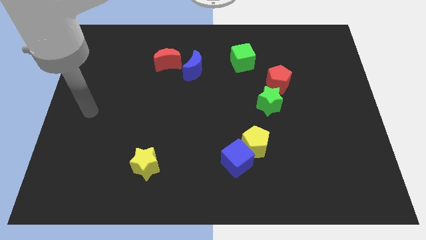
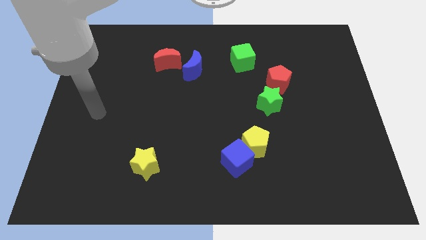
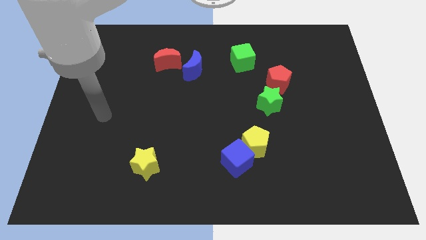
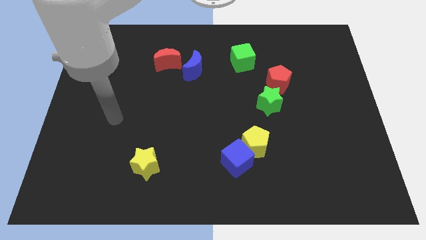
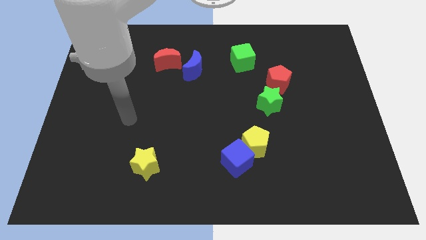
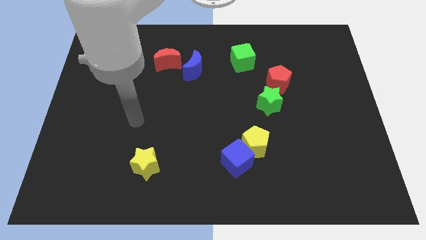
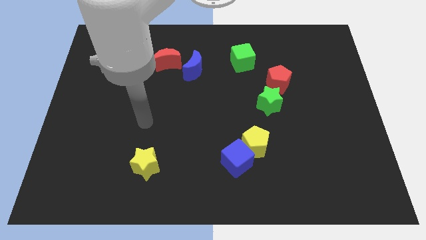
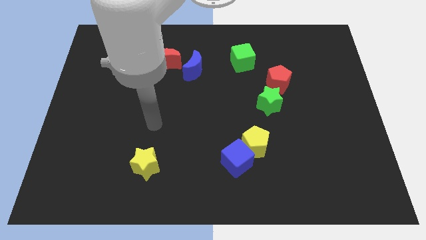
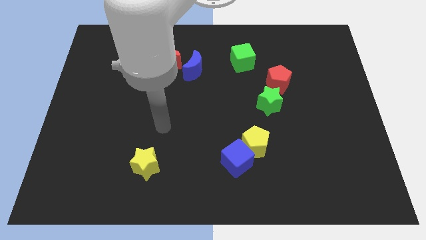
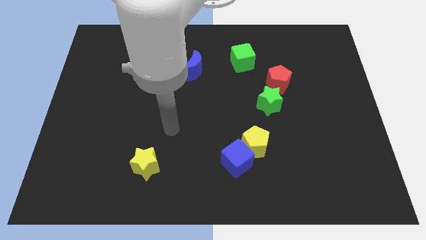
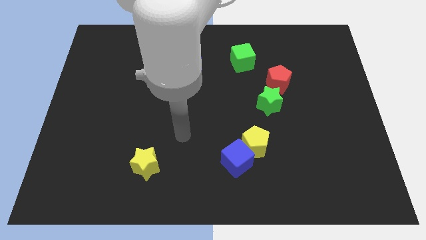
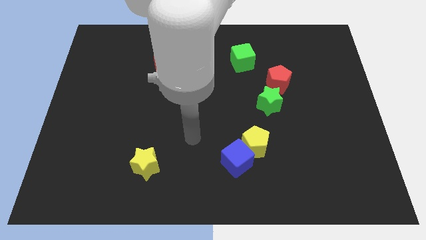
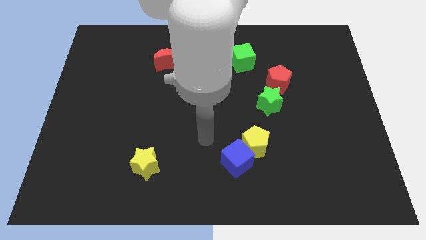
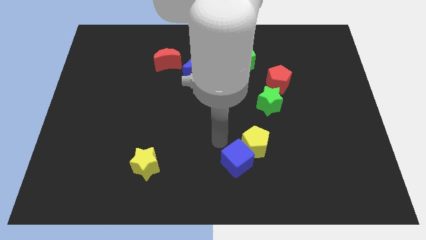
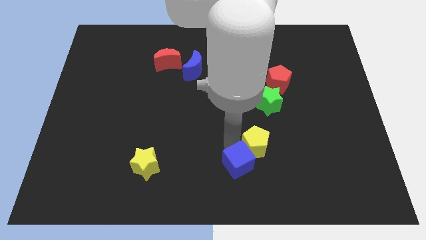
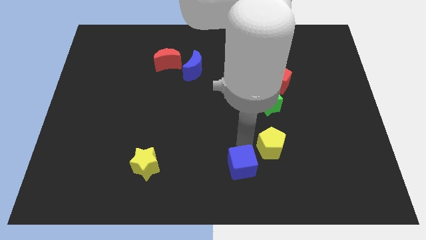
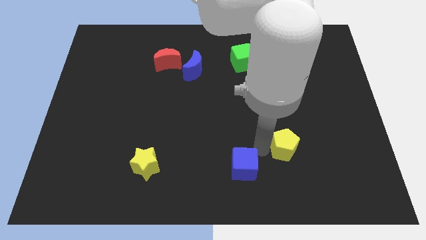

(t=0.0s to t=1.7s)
pull the blue cube apart from the yellow pentagon

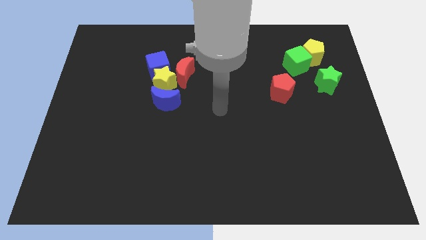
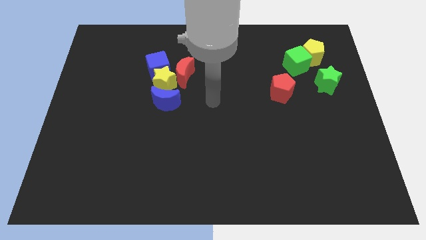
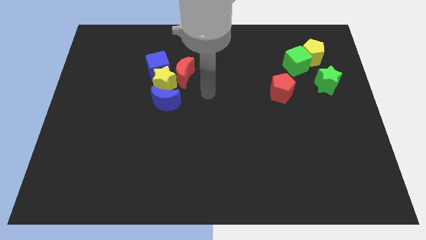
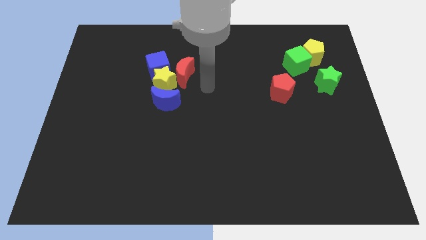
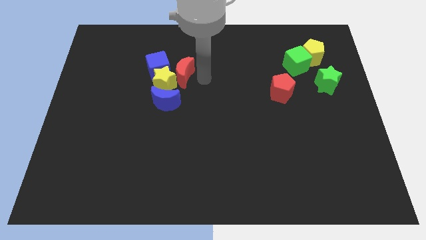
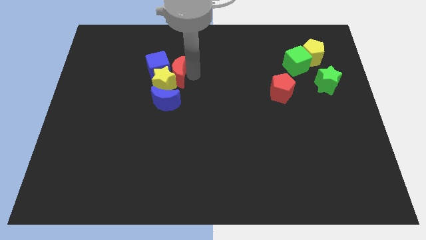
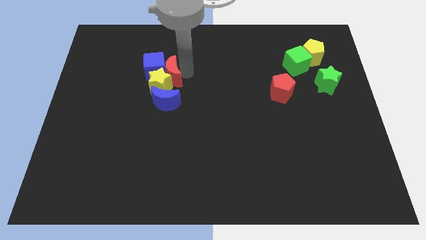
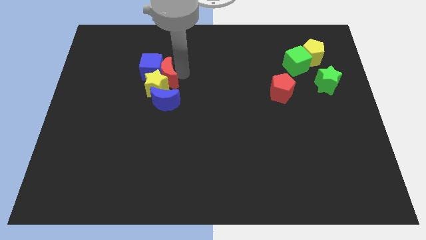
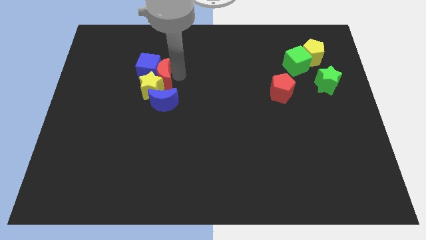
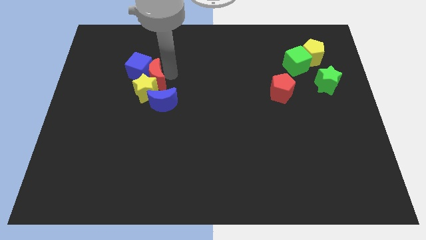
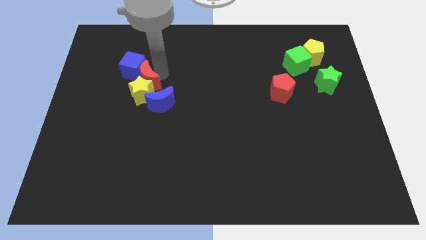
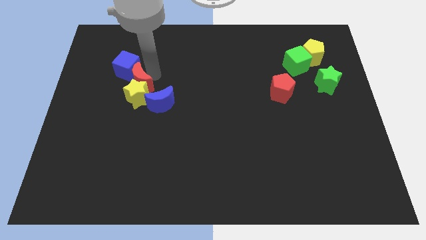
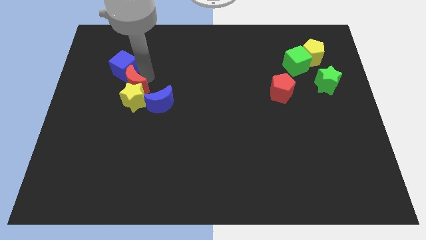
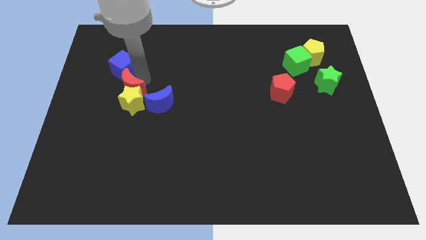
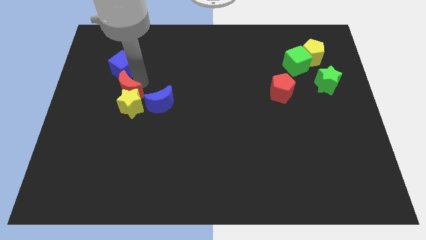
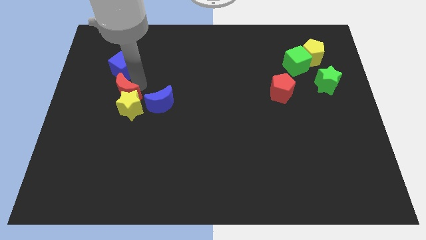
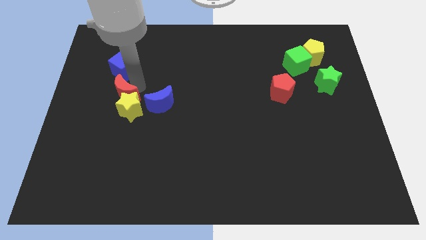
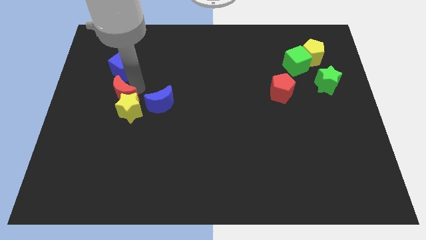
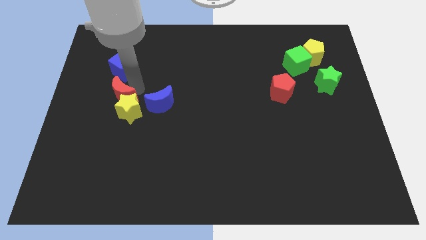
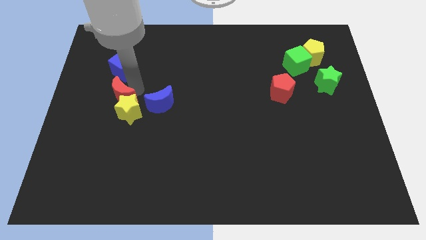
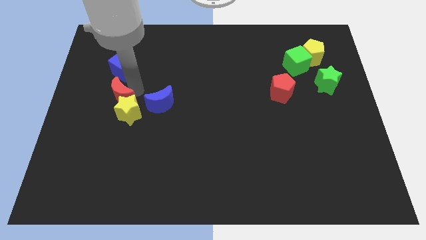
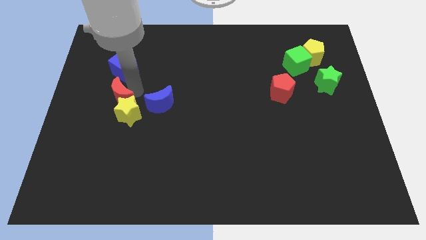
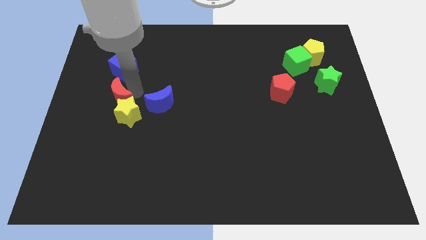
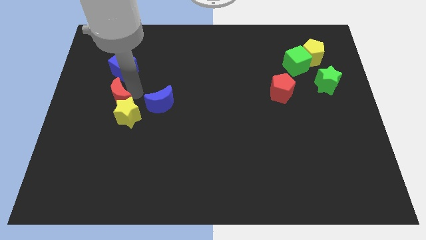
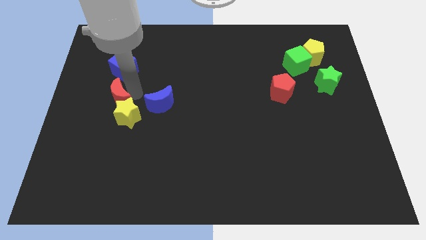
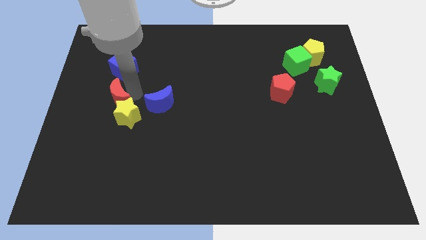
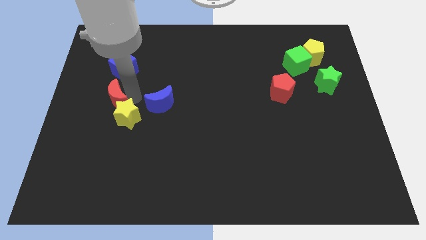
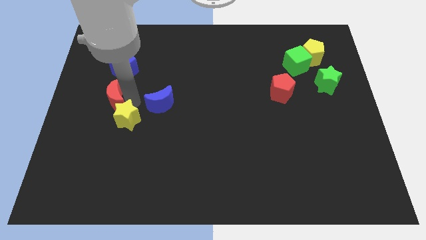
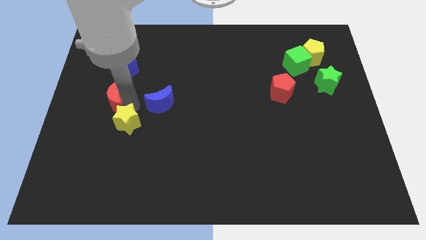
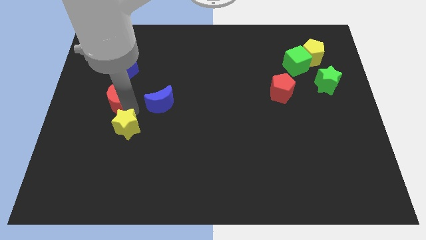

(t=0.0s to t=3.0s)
pull the yellow star apart from the group

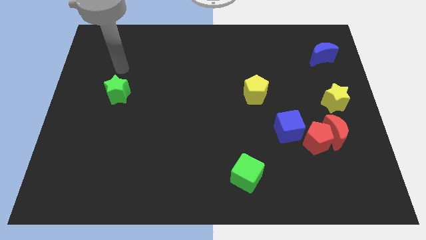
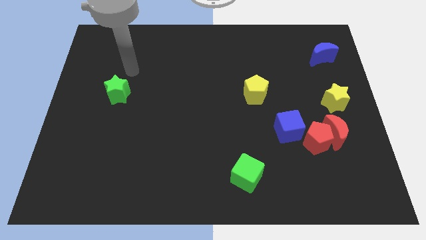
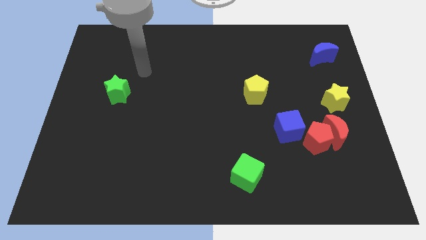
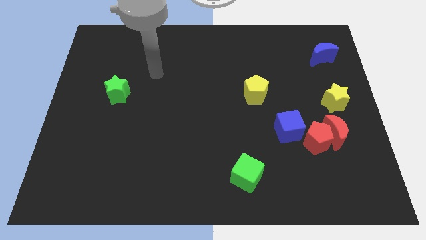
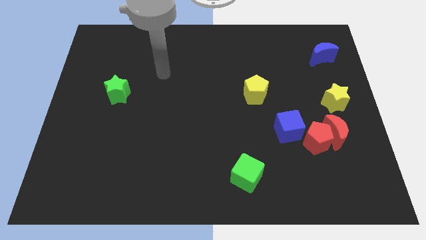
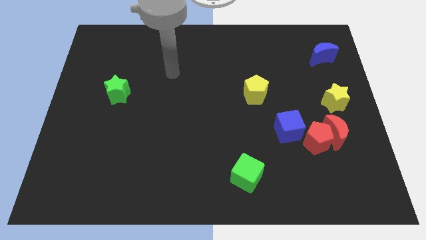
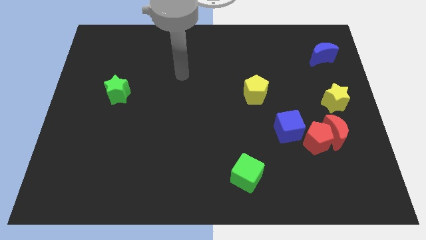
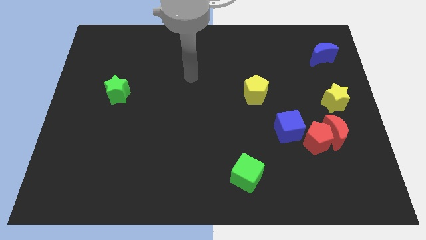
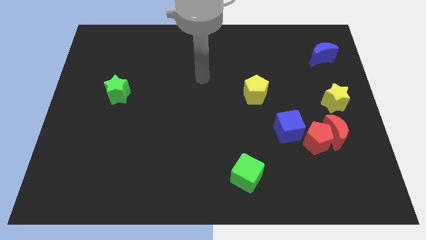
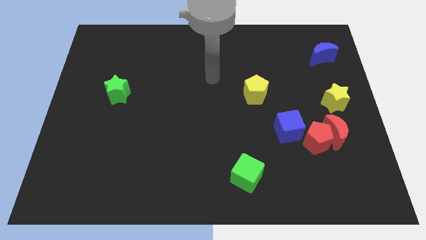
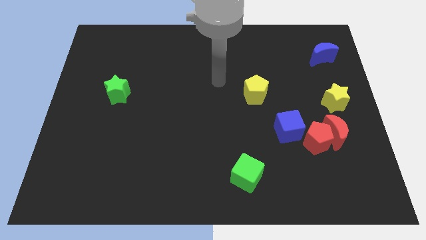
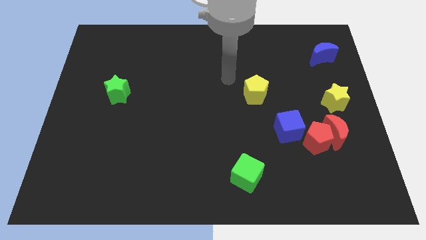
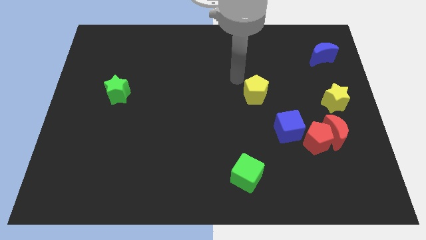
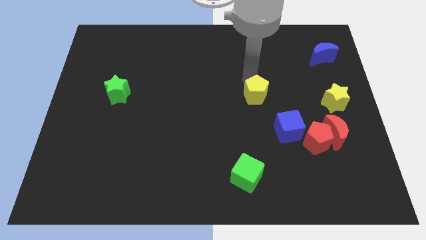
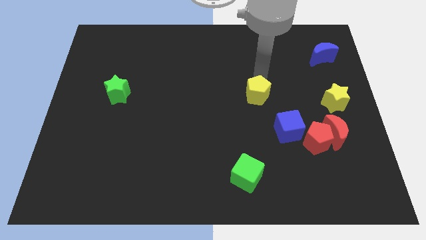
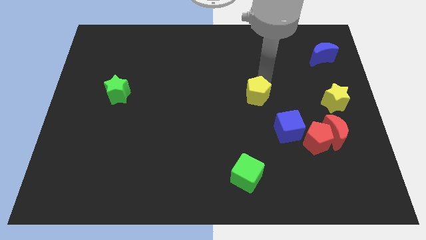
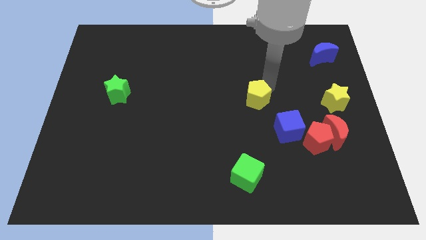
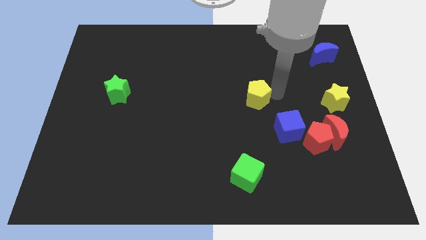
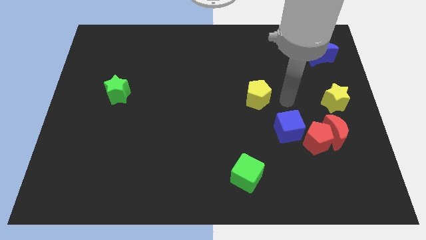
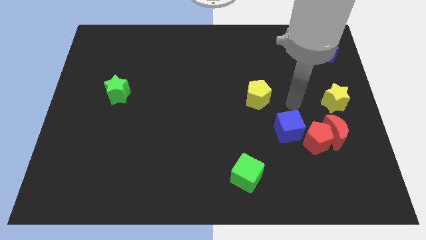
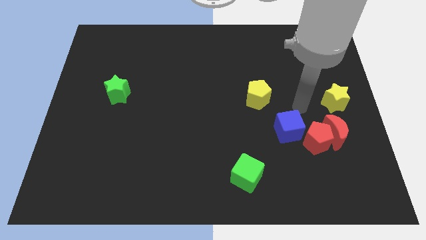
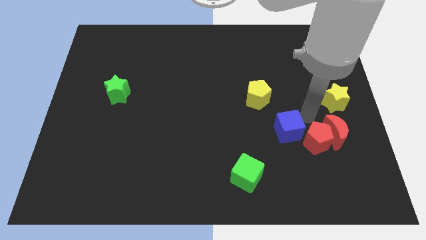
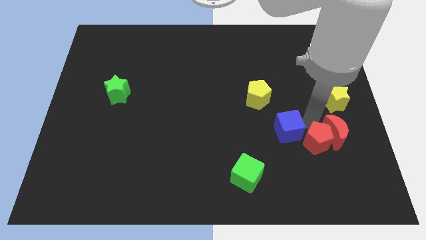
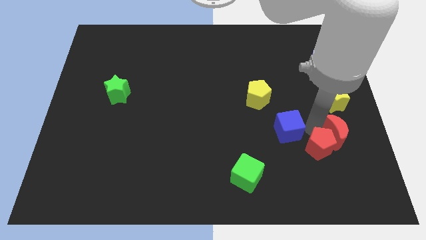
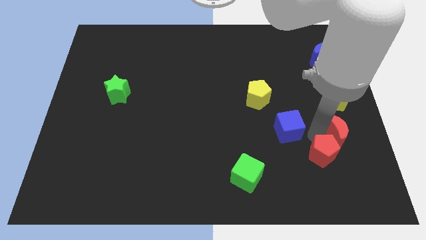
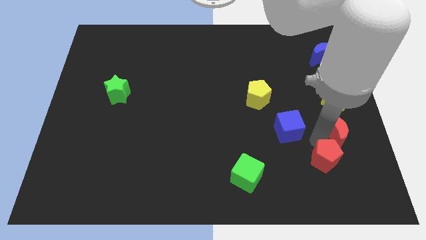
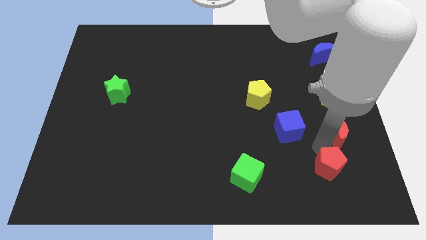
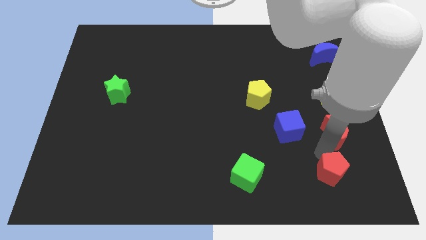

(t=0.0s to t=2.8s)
pull the red pentagon apart from the red moon and blue cube

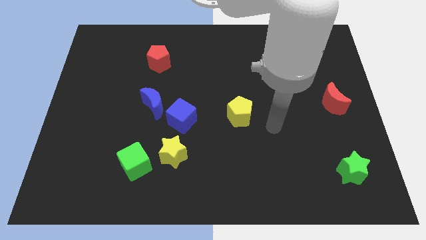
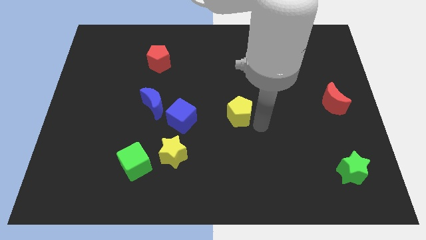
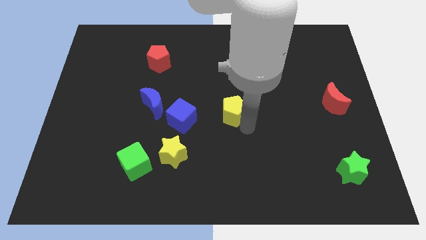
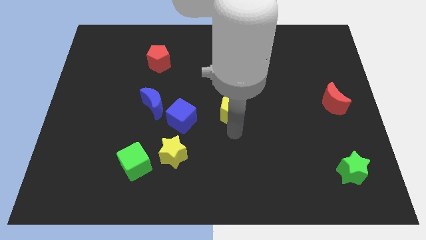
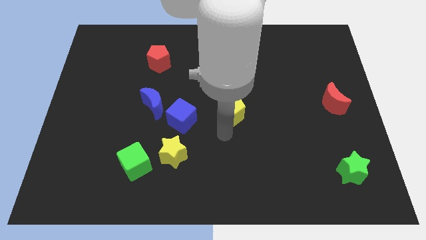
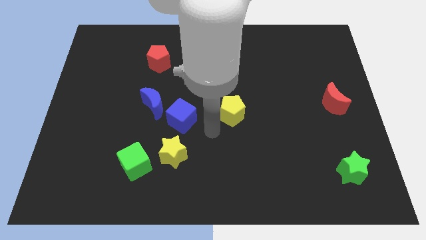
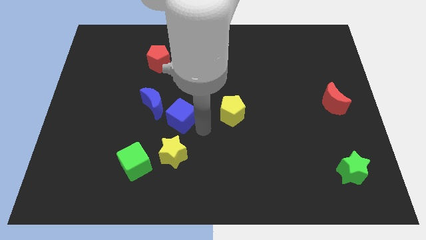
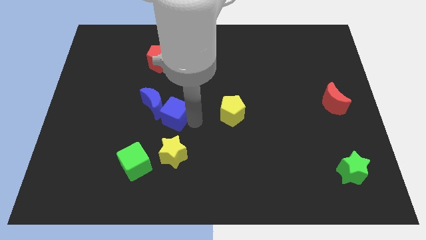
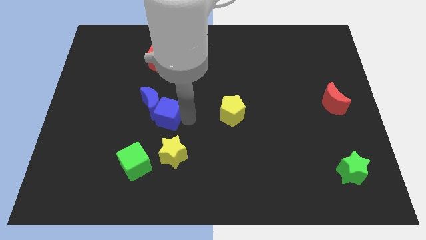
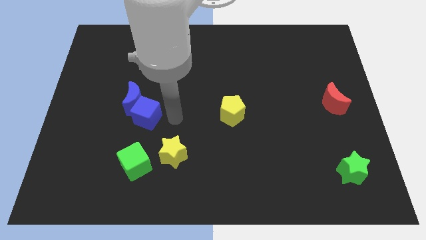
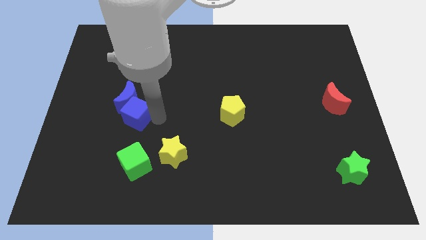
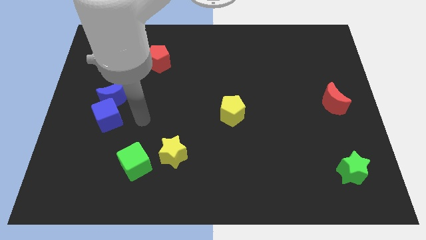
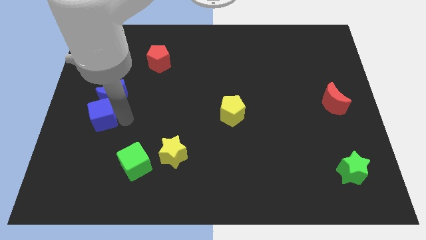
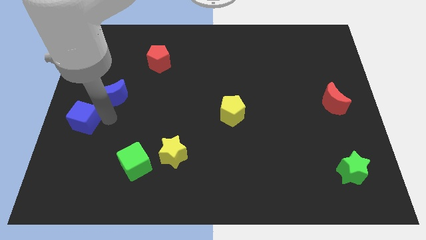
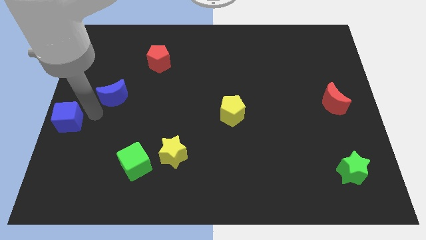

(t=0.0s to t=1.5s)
separate the blue moon from the blue cube

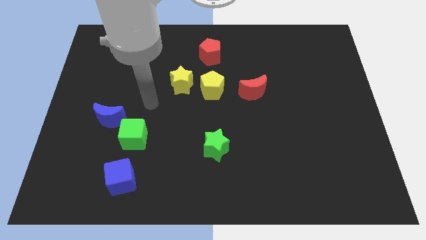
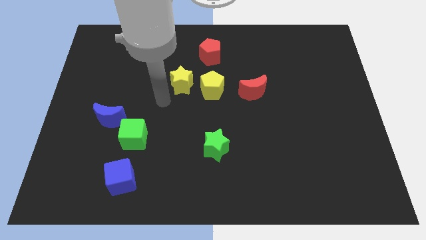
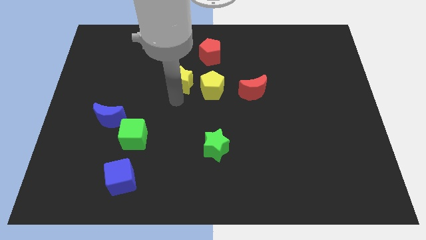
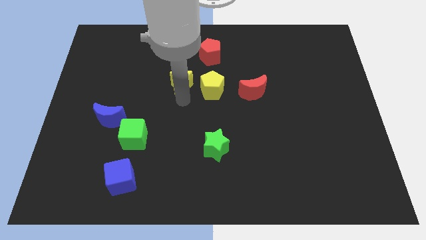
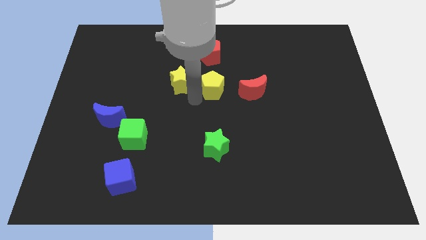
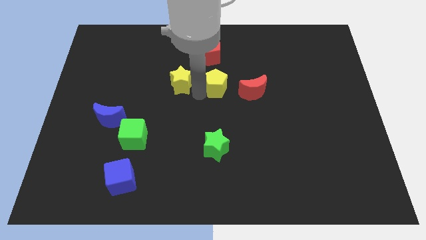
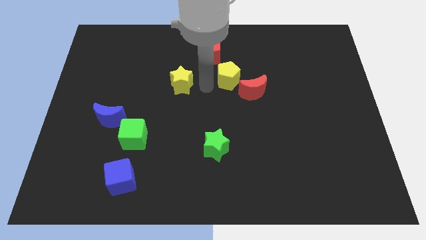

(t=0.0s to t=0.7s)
move the yellow star away from the yellow pentagon
